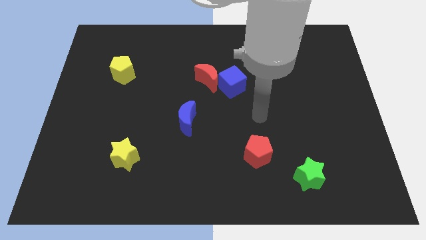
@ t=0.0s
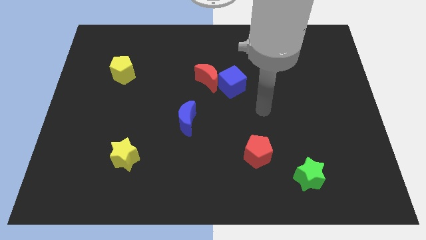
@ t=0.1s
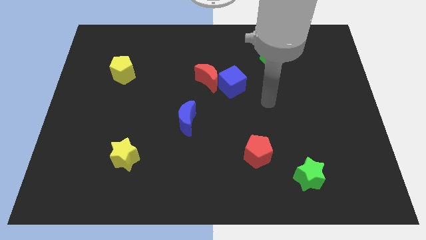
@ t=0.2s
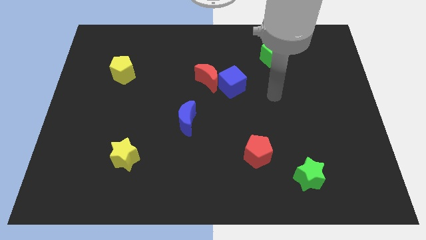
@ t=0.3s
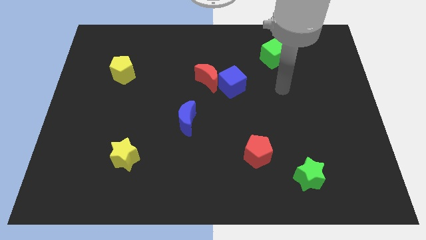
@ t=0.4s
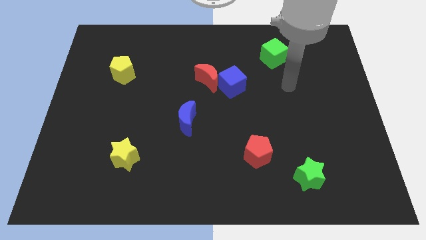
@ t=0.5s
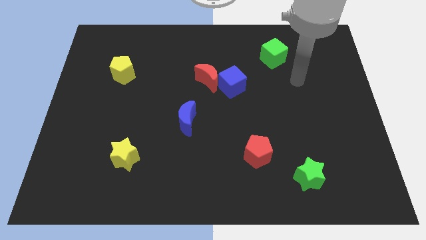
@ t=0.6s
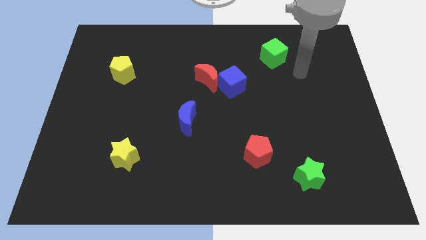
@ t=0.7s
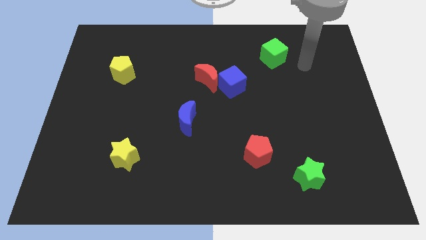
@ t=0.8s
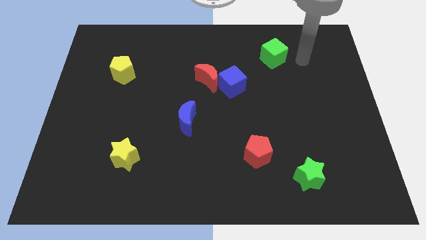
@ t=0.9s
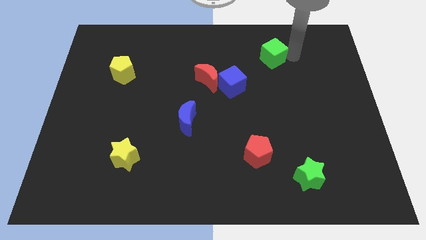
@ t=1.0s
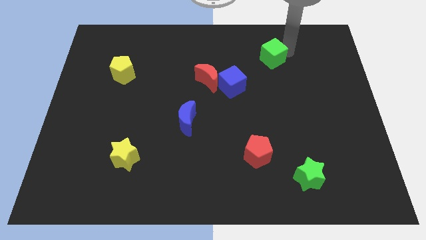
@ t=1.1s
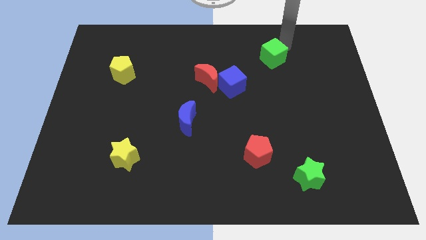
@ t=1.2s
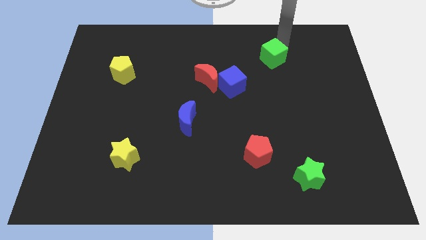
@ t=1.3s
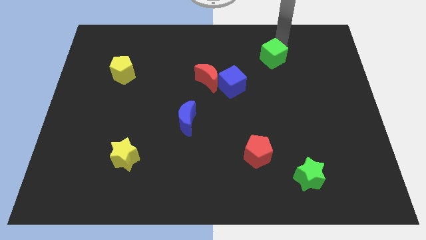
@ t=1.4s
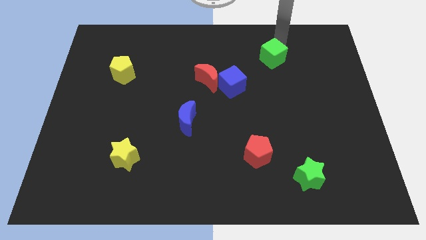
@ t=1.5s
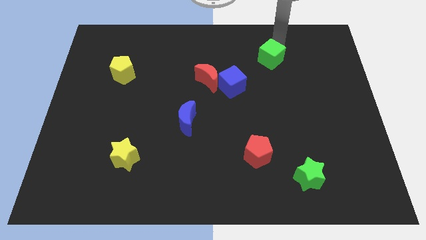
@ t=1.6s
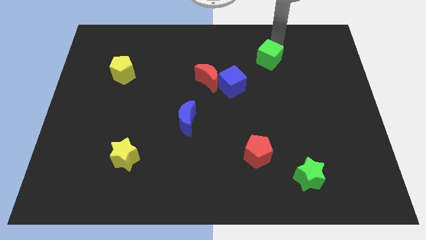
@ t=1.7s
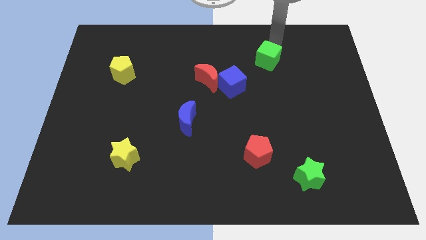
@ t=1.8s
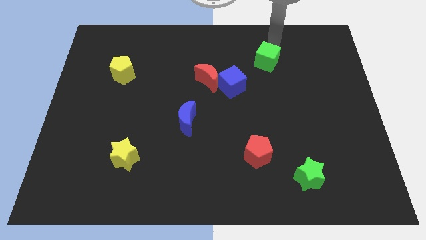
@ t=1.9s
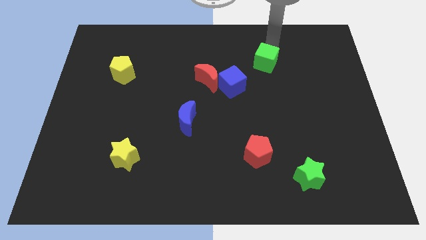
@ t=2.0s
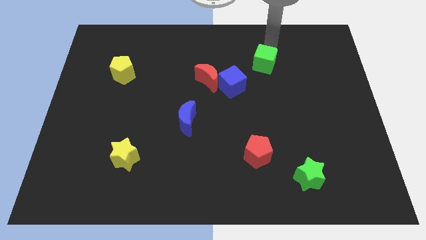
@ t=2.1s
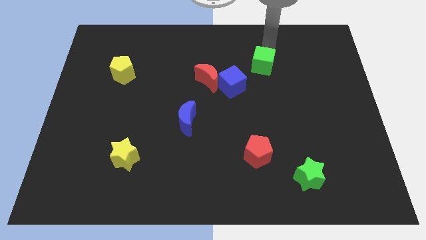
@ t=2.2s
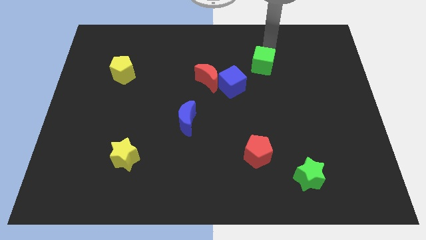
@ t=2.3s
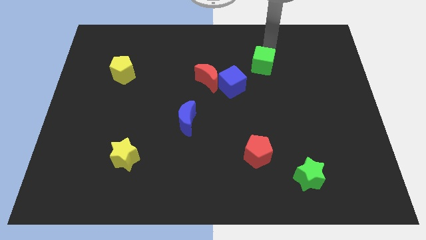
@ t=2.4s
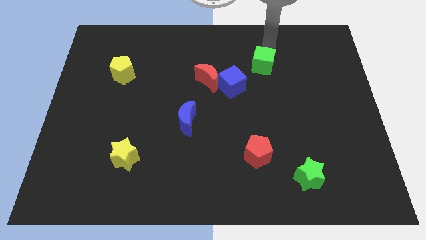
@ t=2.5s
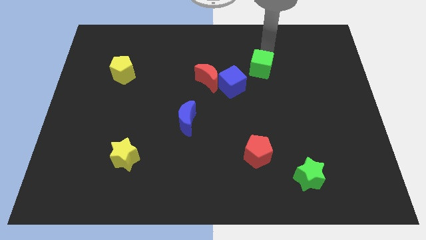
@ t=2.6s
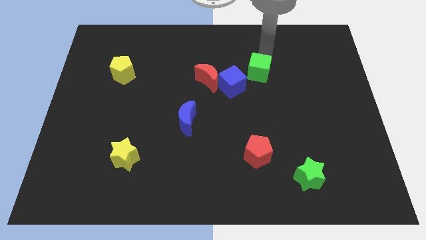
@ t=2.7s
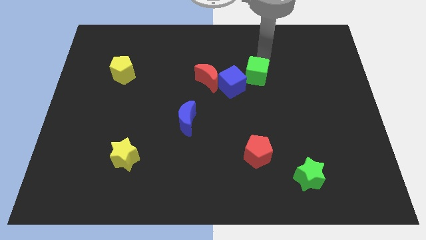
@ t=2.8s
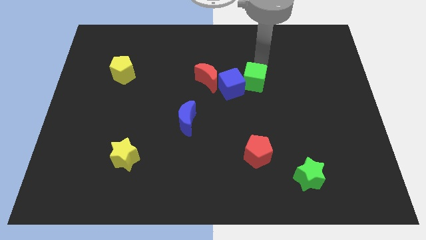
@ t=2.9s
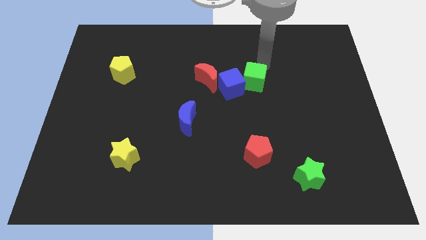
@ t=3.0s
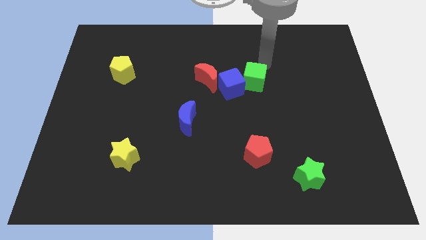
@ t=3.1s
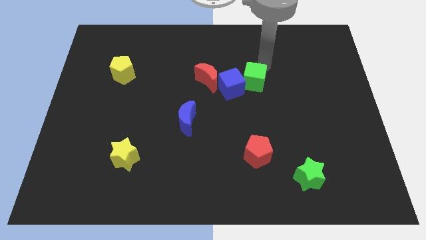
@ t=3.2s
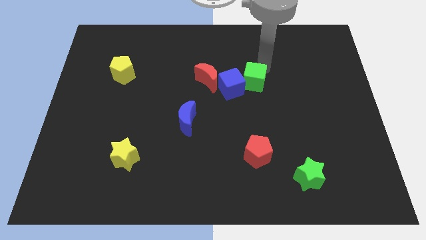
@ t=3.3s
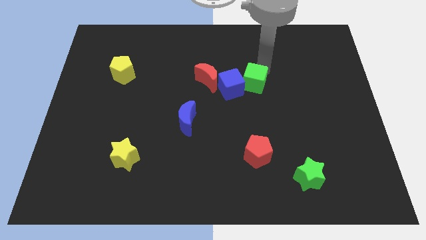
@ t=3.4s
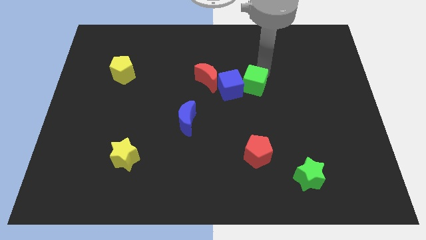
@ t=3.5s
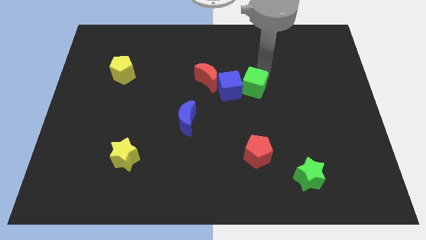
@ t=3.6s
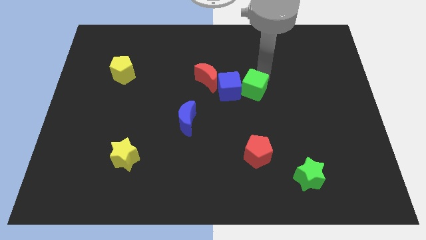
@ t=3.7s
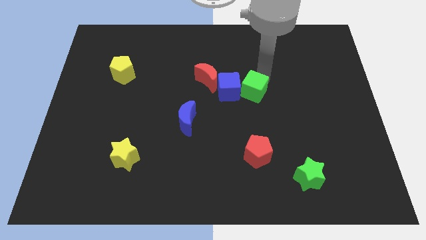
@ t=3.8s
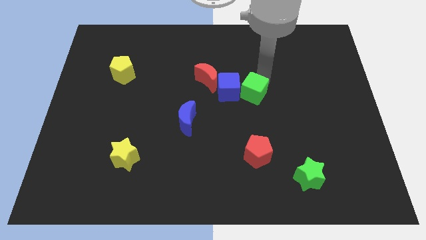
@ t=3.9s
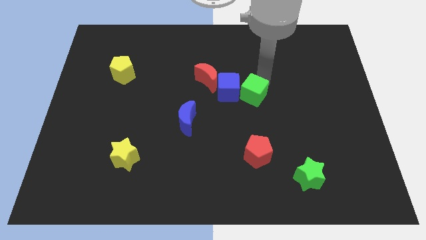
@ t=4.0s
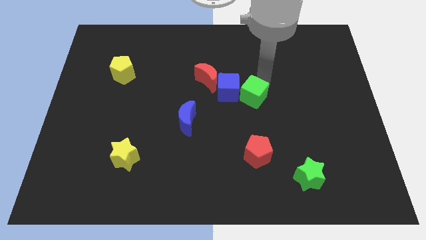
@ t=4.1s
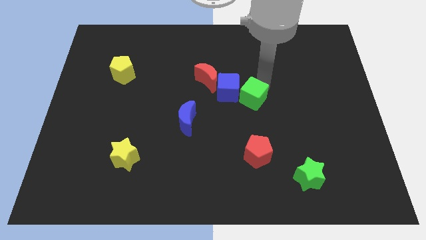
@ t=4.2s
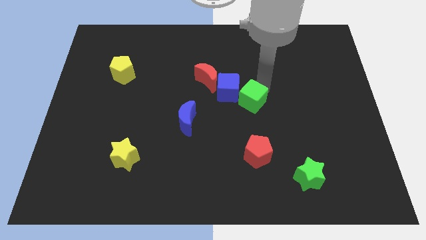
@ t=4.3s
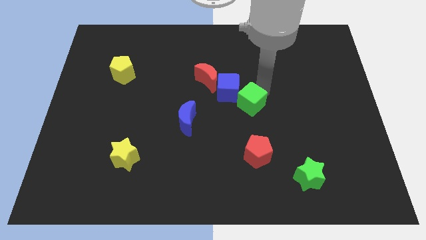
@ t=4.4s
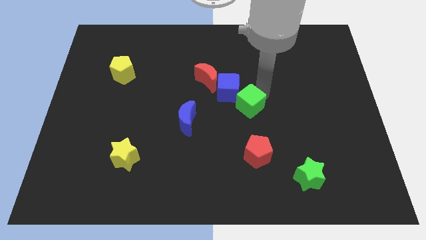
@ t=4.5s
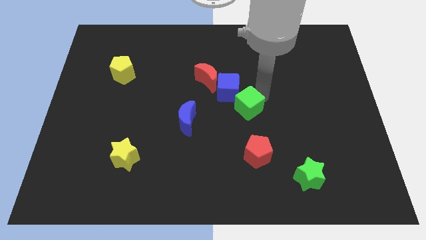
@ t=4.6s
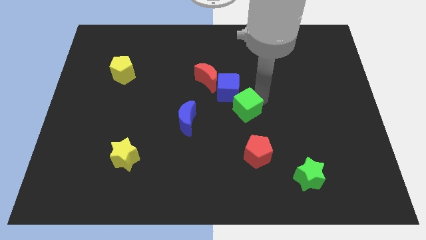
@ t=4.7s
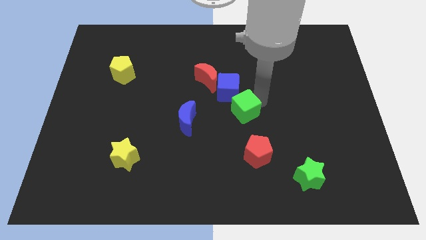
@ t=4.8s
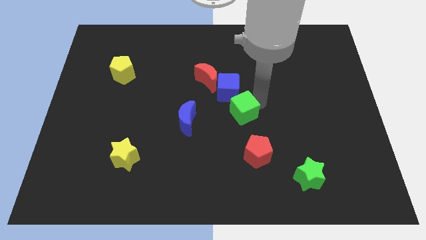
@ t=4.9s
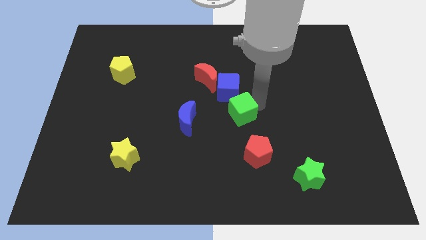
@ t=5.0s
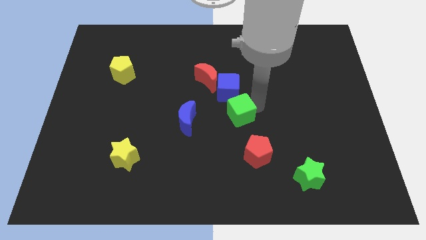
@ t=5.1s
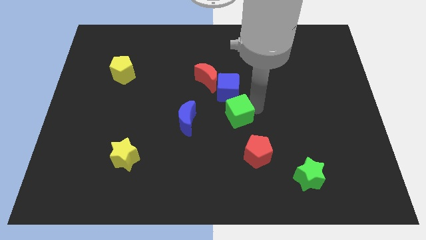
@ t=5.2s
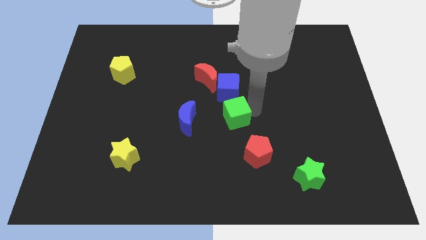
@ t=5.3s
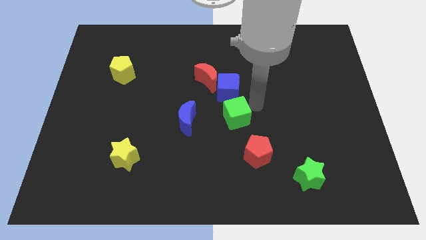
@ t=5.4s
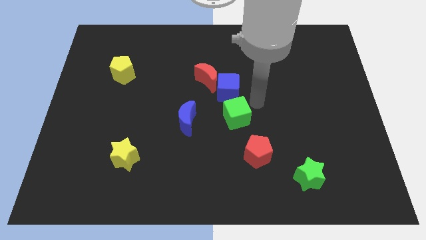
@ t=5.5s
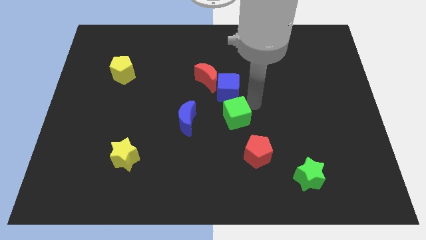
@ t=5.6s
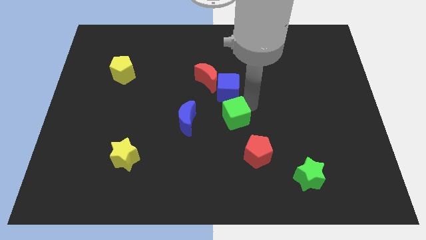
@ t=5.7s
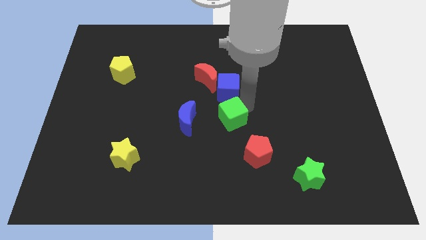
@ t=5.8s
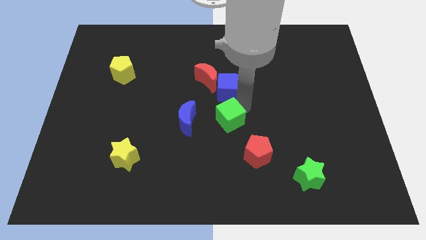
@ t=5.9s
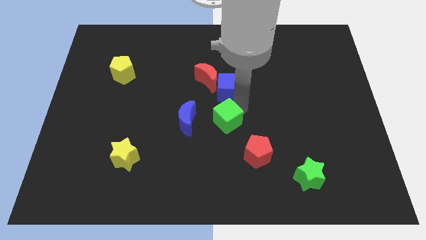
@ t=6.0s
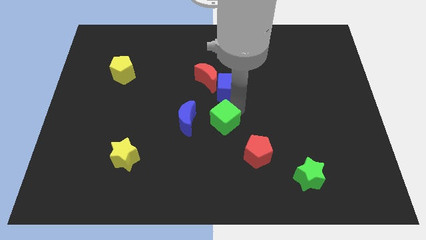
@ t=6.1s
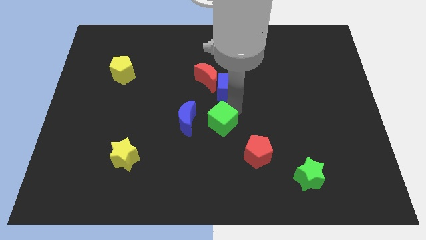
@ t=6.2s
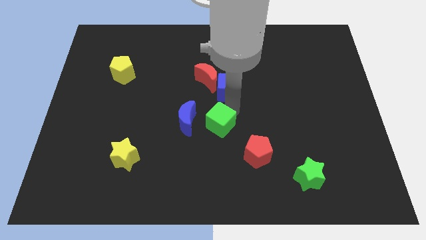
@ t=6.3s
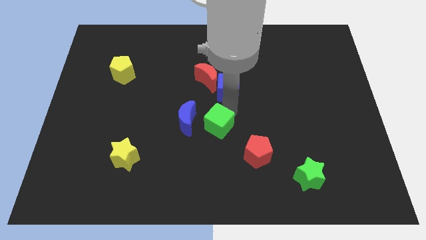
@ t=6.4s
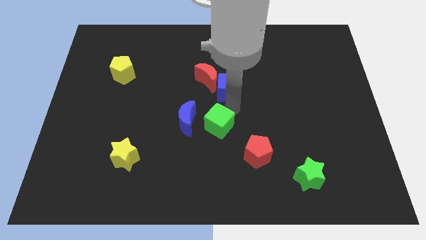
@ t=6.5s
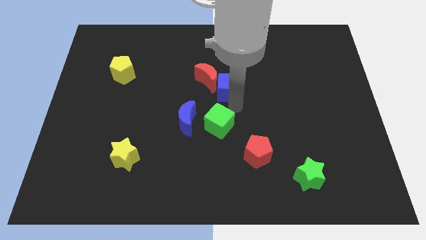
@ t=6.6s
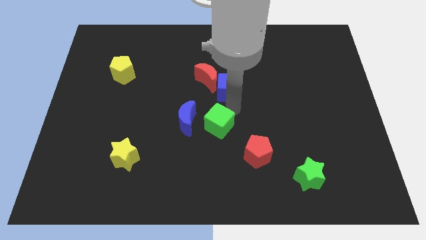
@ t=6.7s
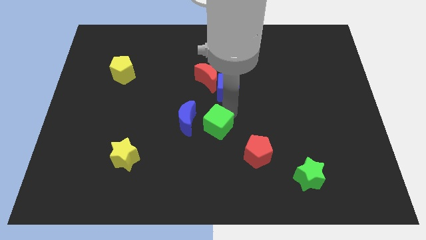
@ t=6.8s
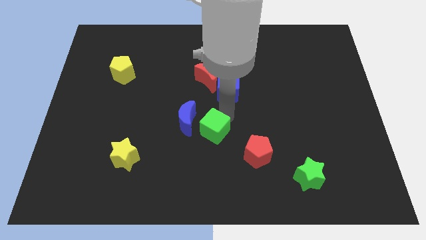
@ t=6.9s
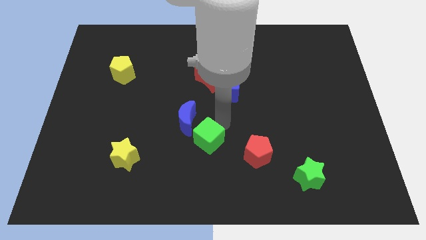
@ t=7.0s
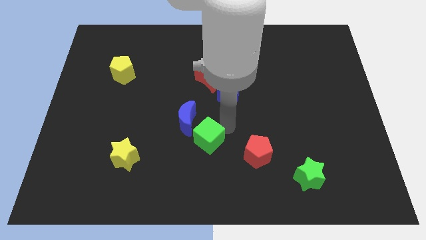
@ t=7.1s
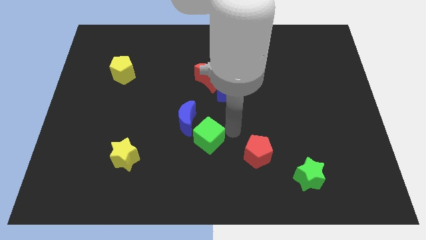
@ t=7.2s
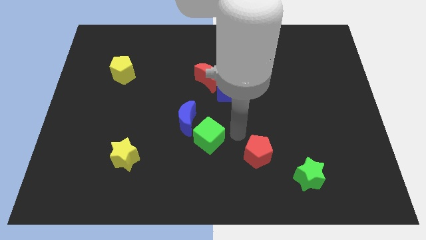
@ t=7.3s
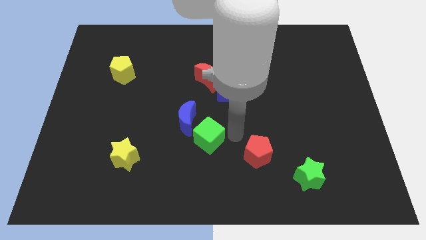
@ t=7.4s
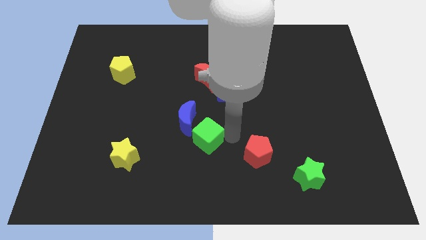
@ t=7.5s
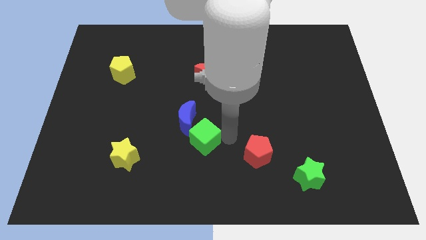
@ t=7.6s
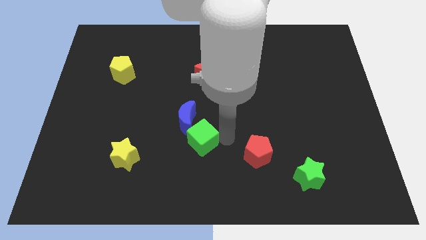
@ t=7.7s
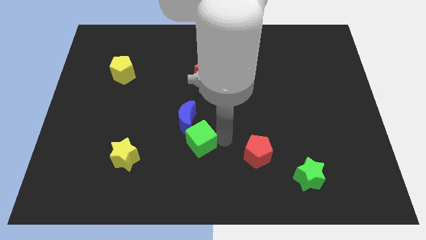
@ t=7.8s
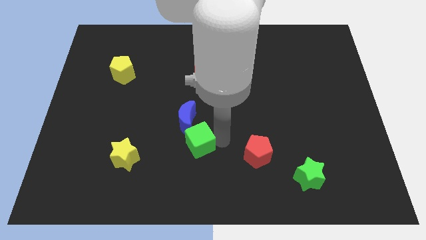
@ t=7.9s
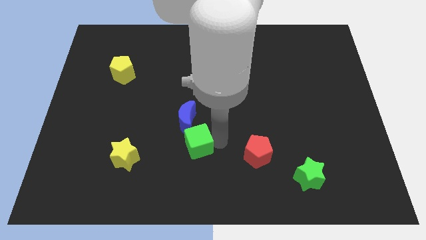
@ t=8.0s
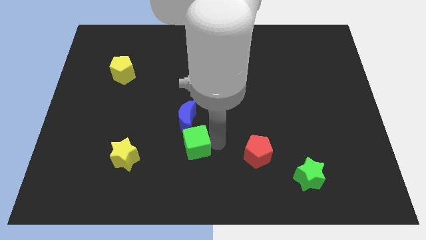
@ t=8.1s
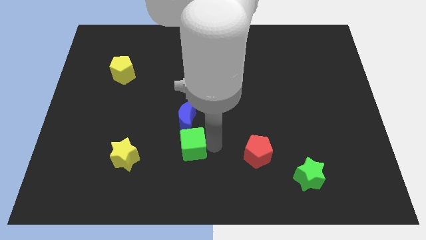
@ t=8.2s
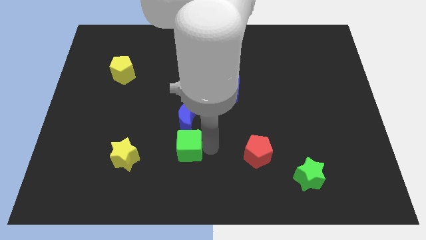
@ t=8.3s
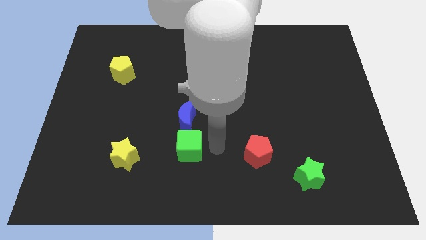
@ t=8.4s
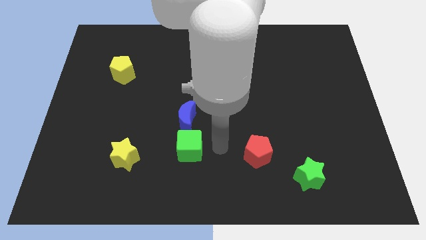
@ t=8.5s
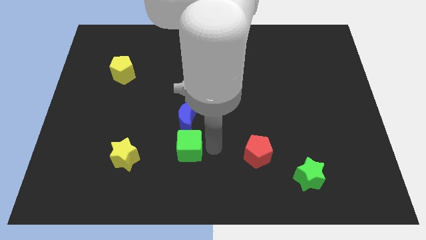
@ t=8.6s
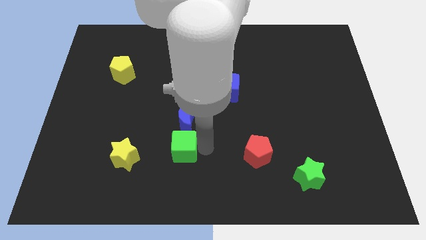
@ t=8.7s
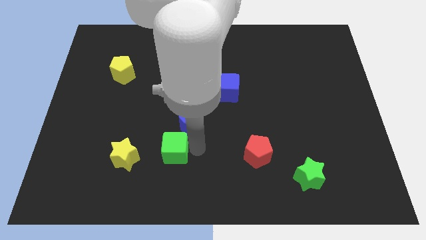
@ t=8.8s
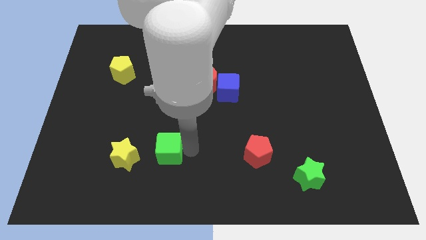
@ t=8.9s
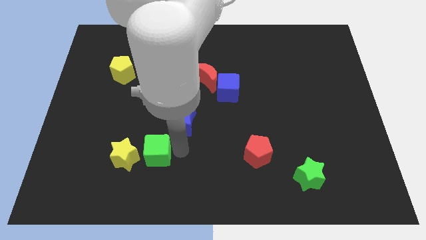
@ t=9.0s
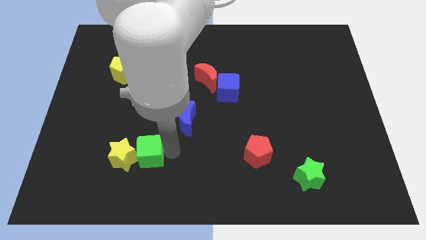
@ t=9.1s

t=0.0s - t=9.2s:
slide the green cube close to the yellow star
